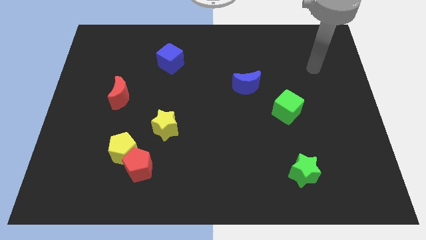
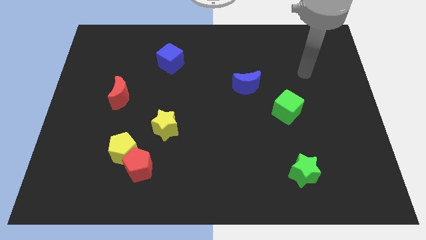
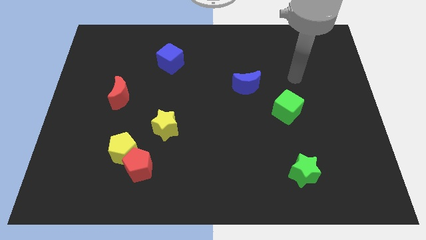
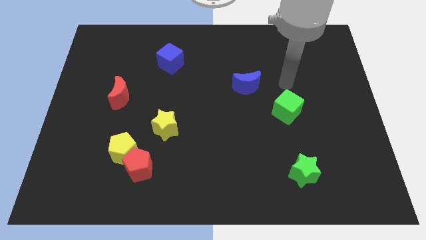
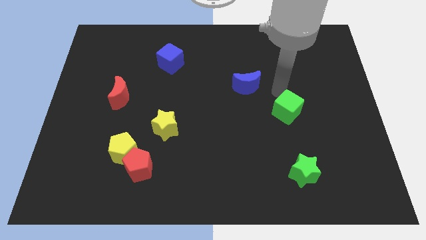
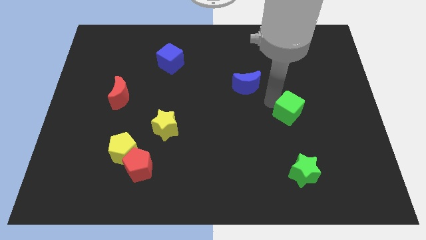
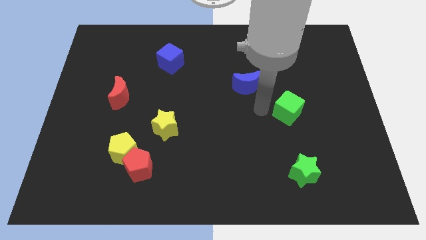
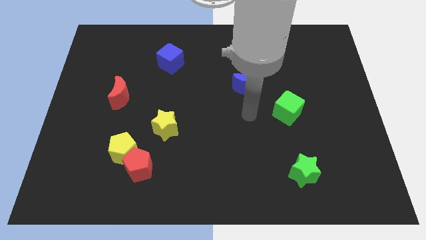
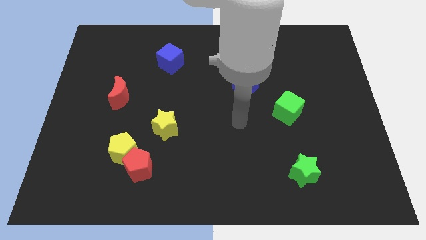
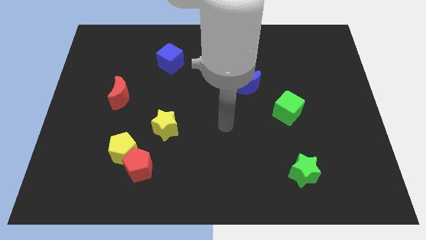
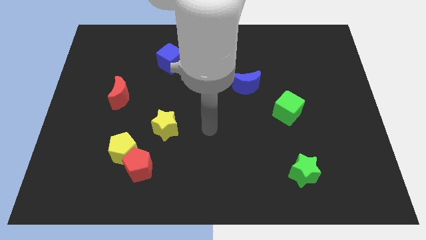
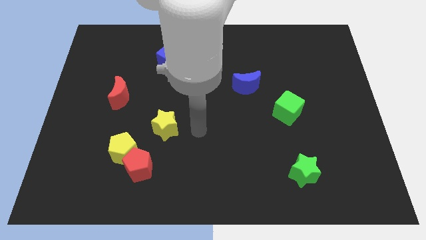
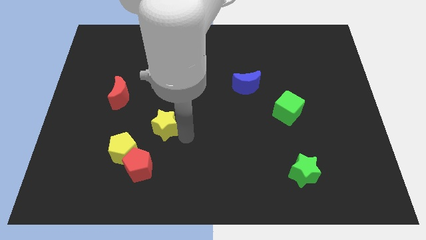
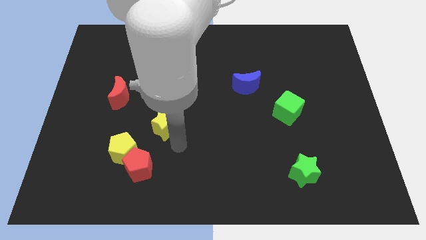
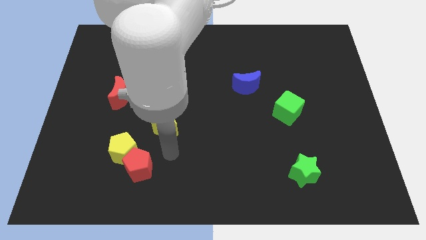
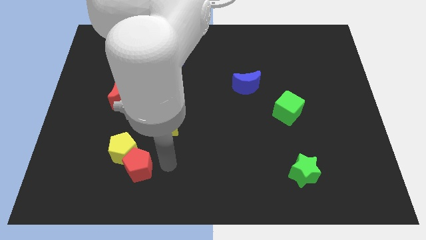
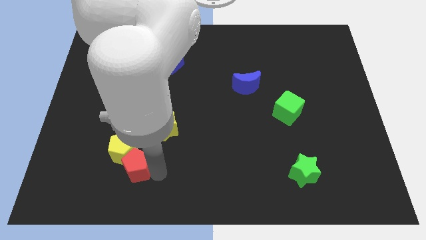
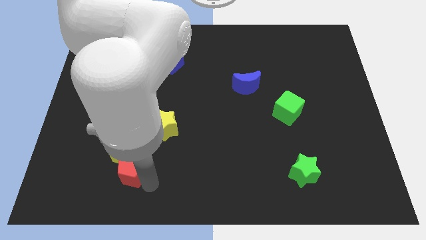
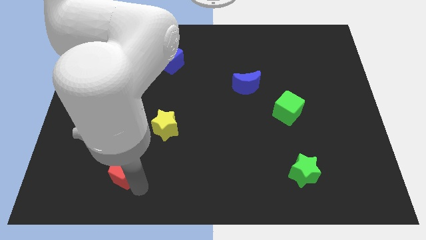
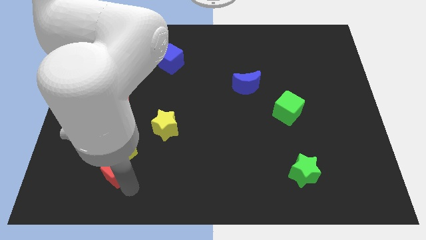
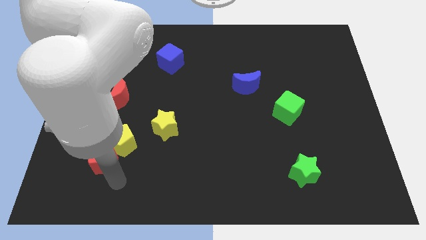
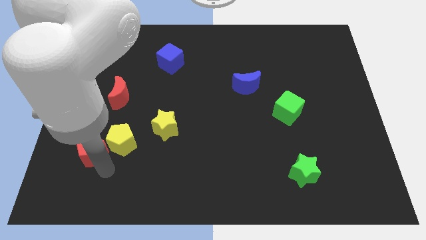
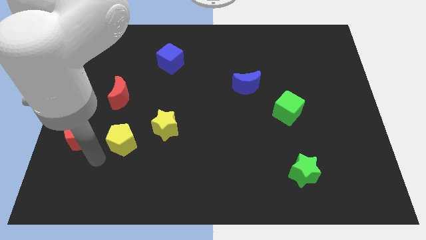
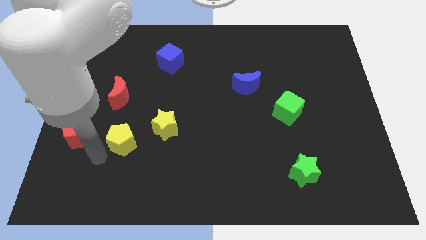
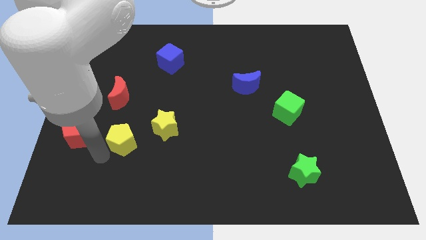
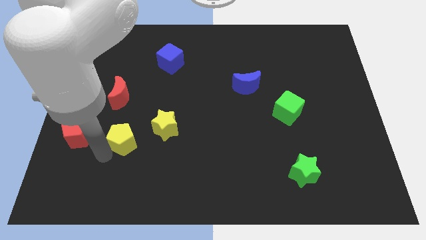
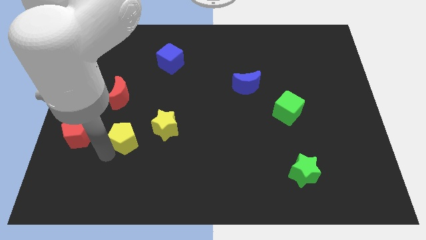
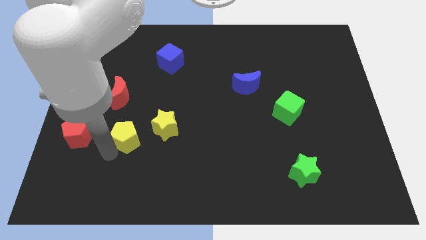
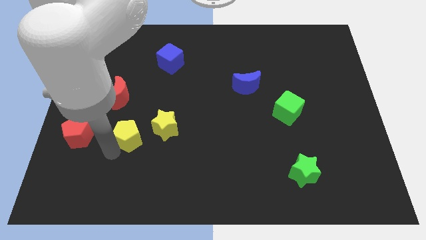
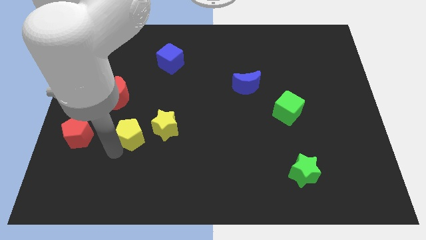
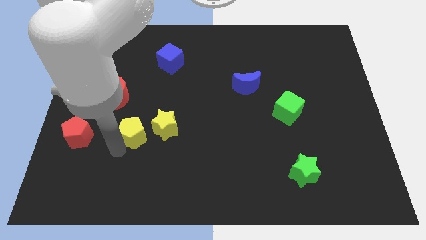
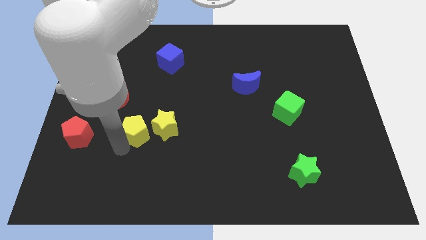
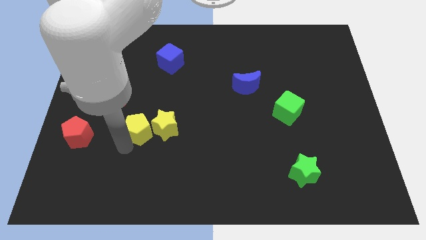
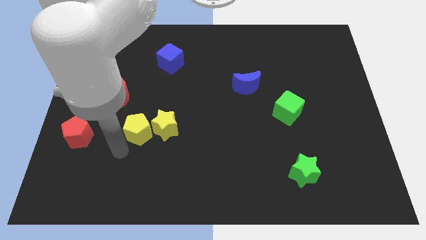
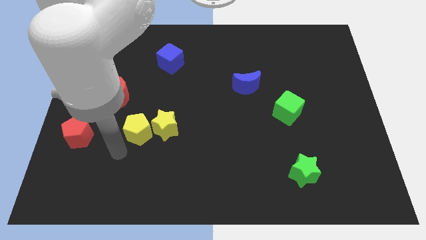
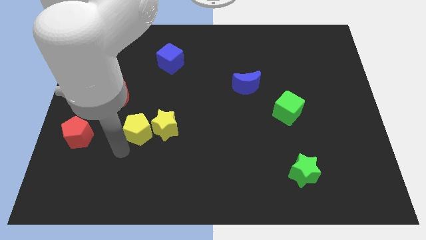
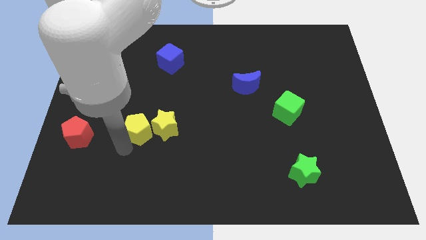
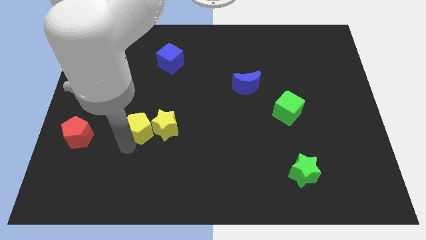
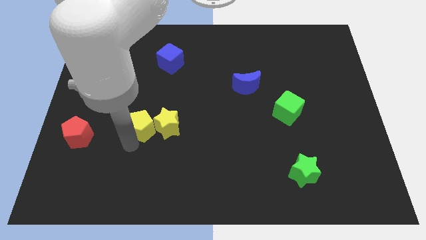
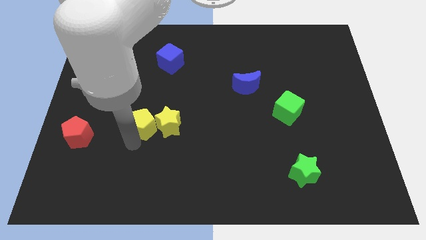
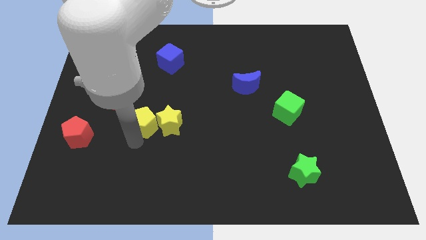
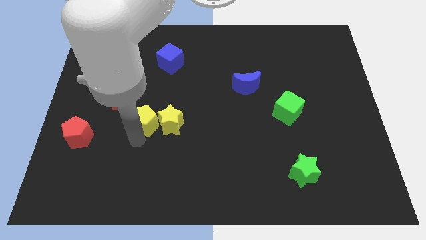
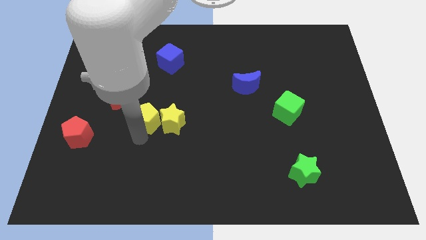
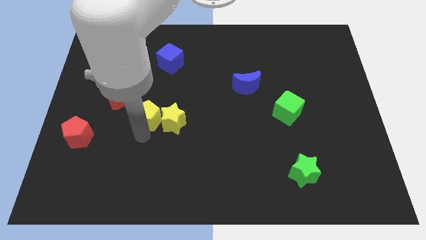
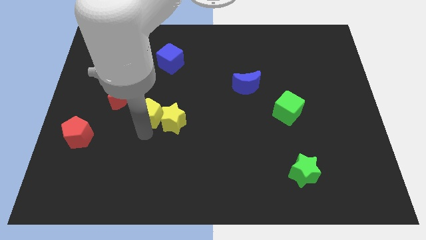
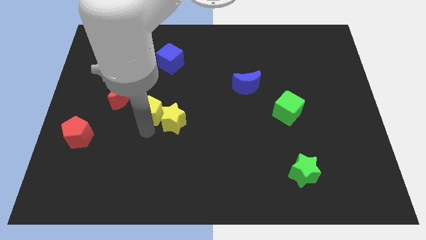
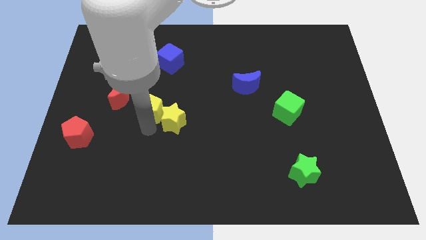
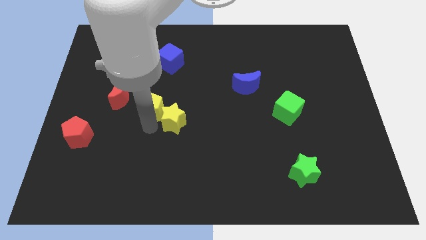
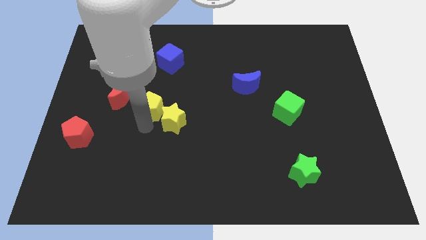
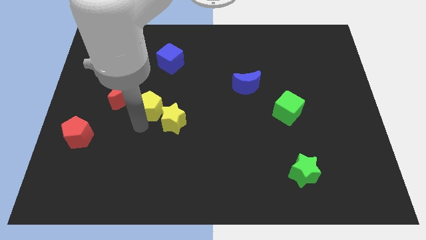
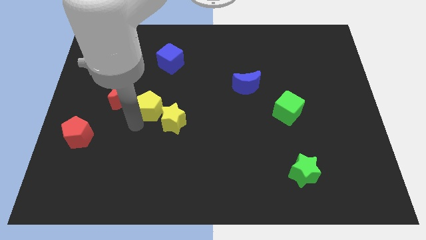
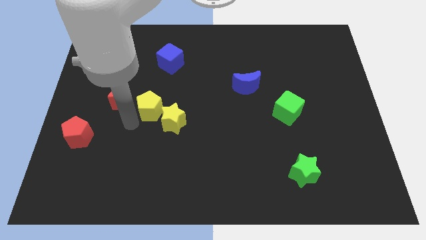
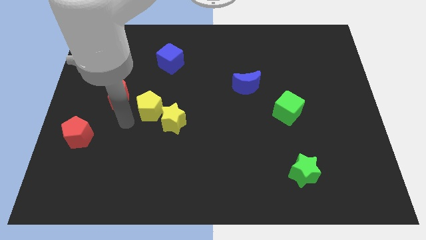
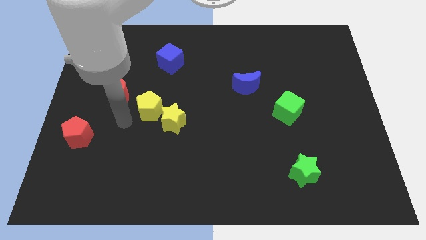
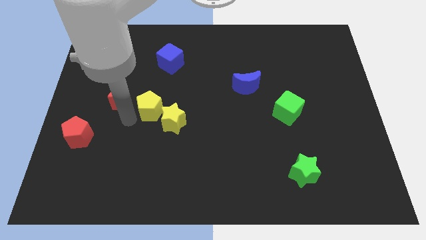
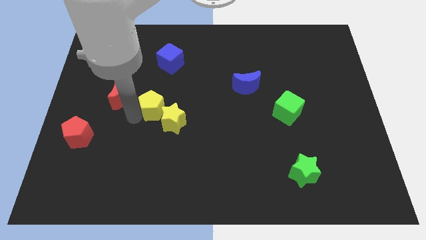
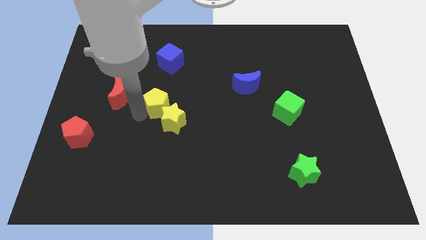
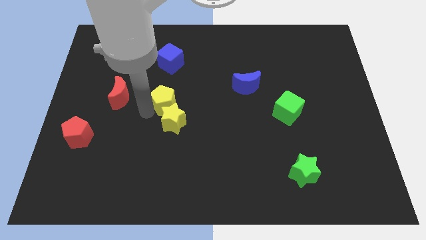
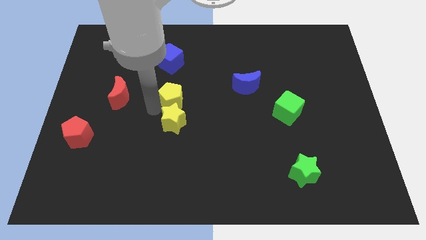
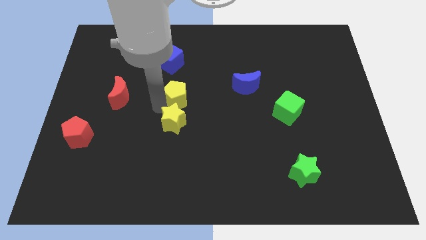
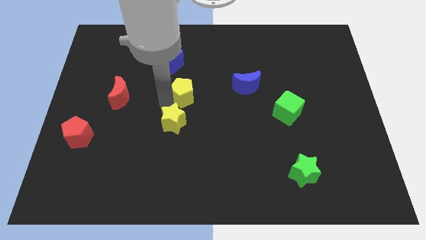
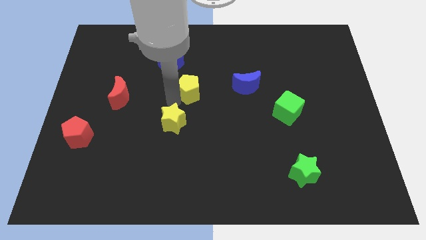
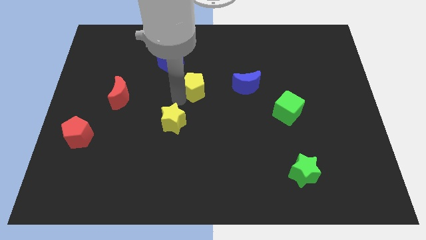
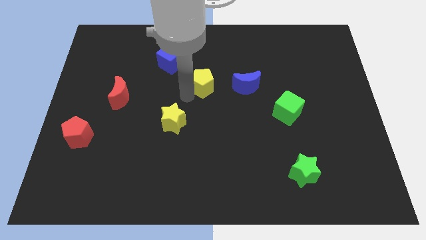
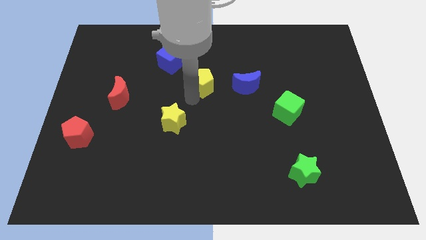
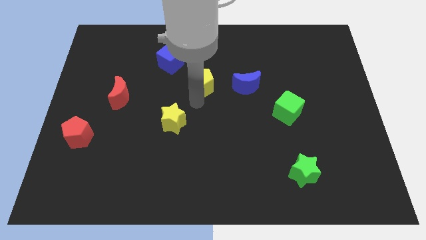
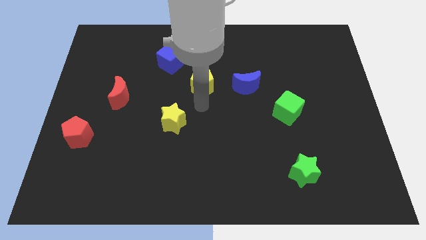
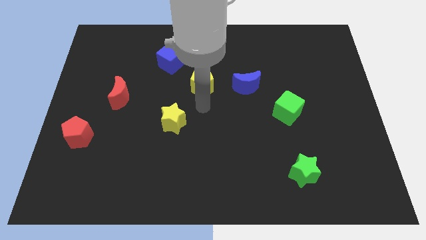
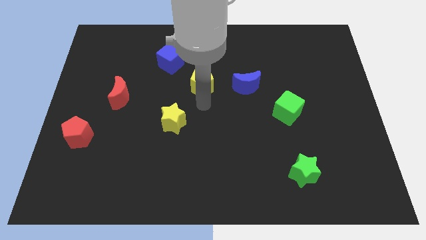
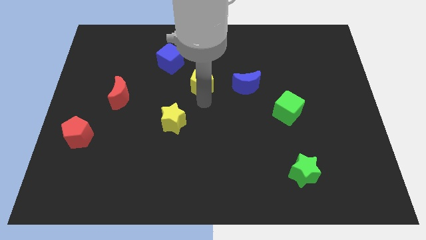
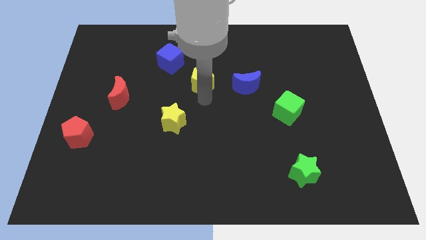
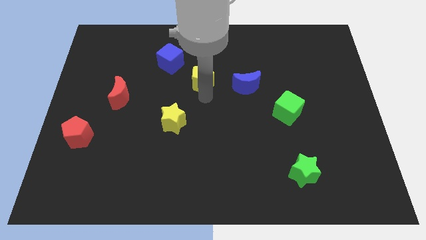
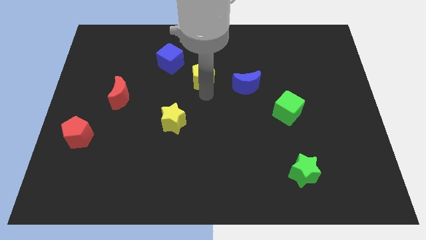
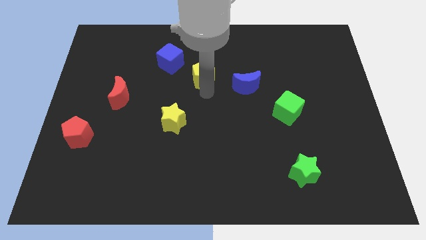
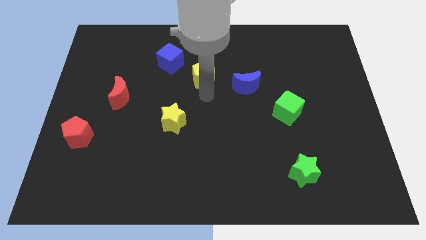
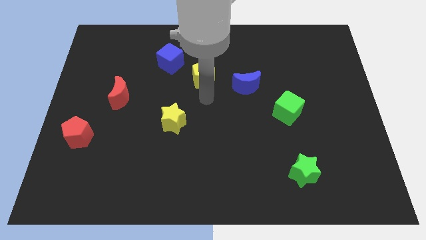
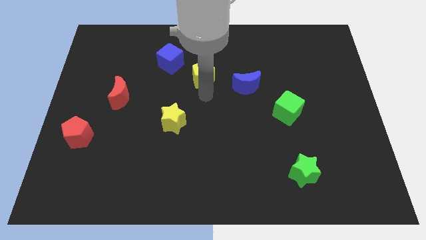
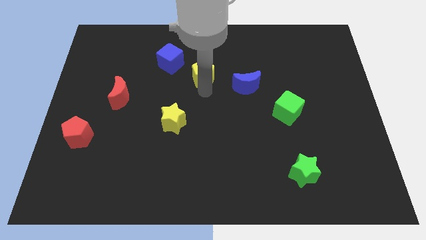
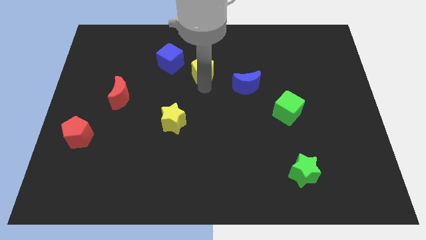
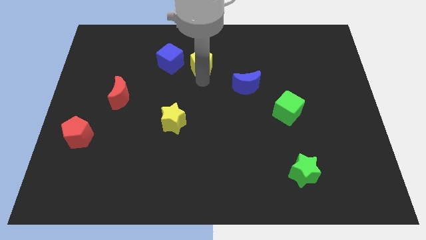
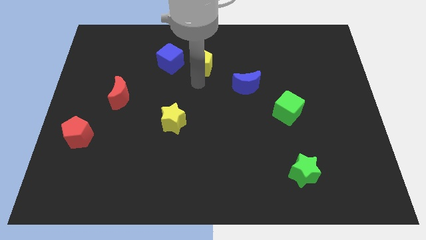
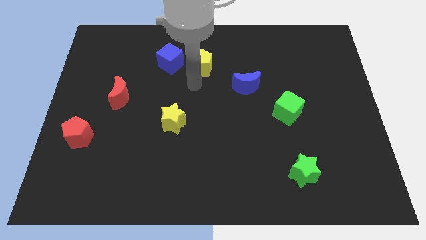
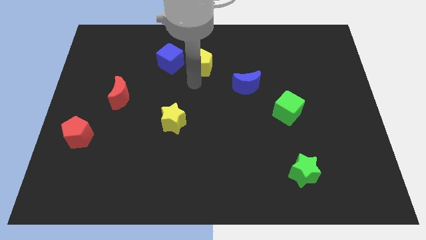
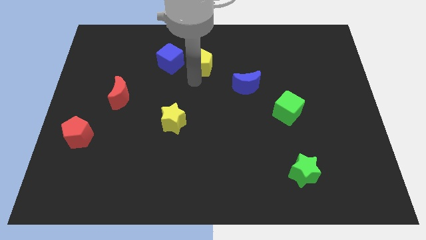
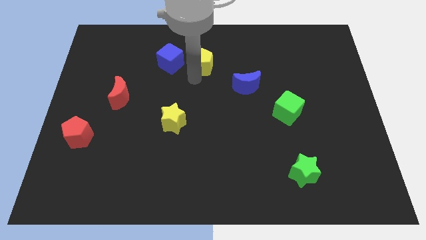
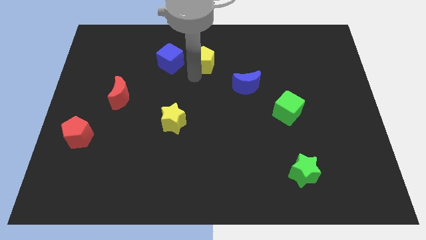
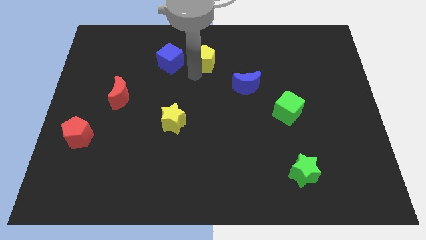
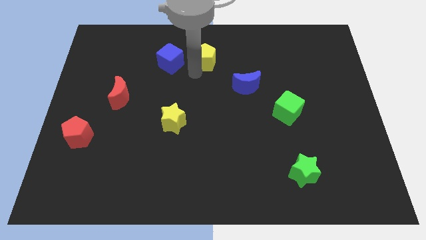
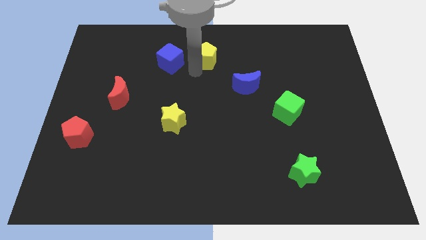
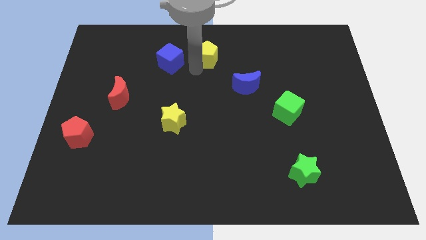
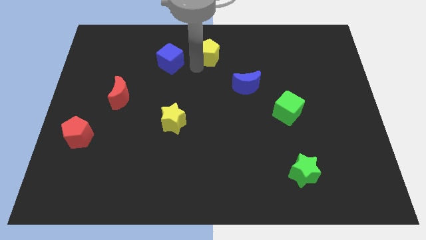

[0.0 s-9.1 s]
move the yellow pentagon to the towards your base
